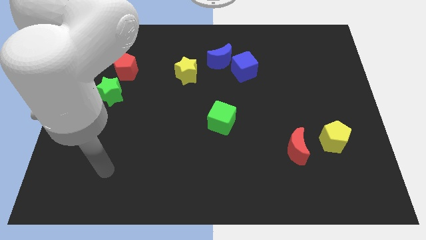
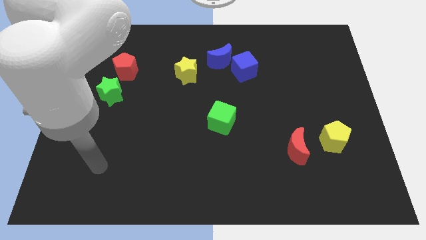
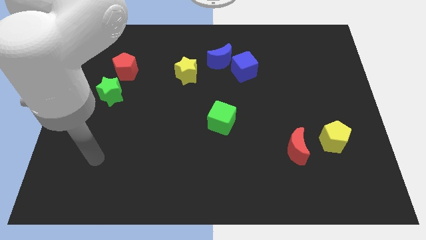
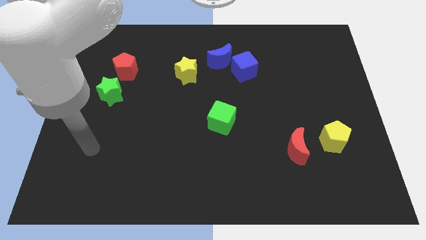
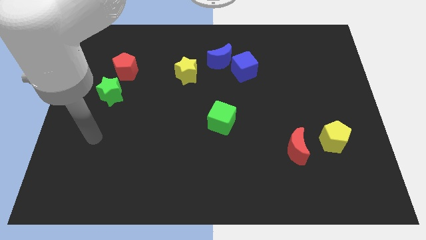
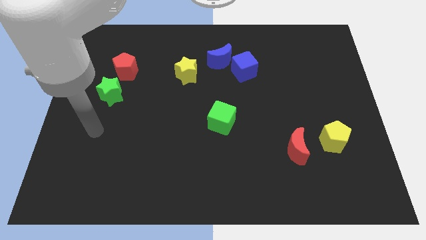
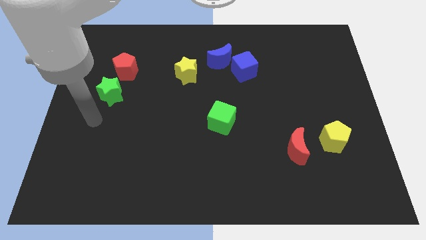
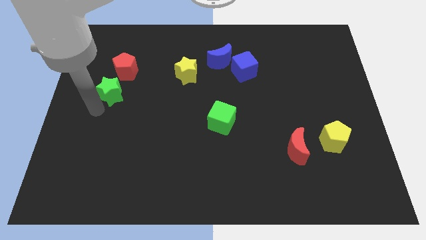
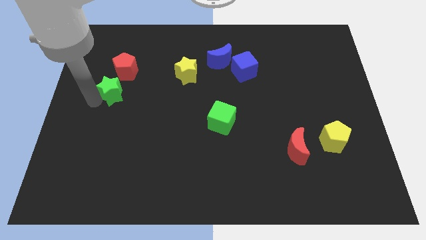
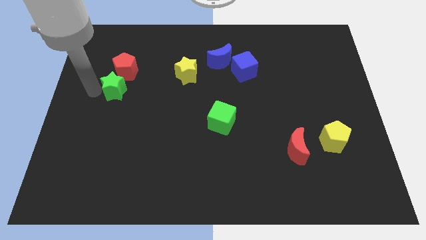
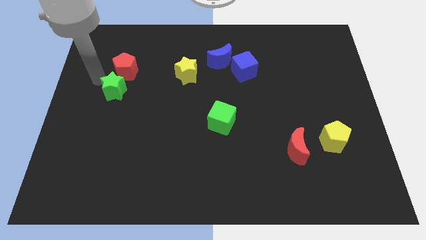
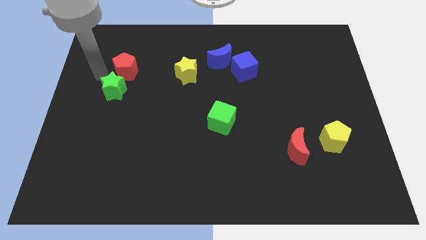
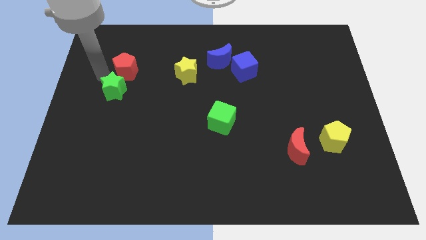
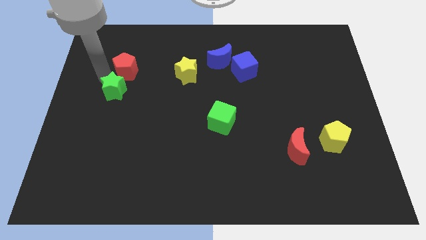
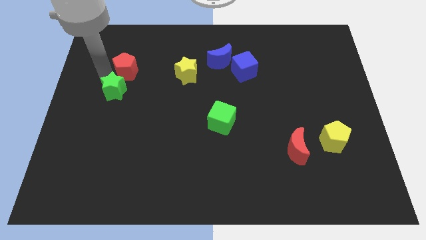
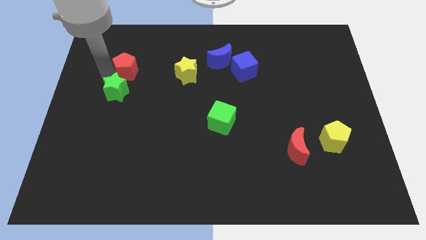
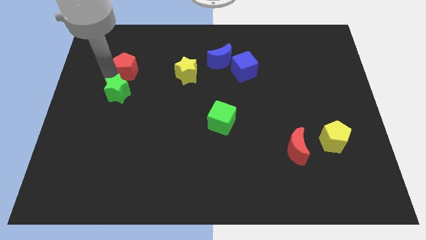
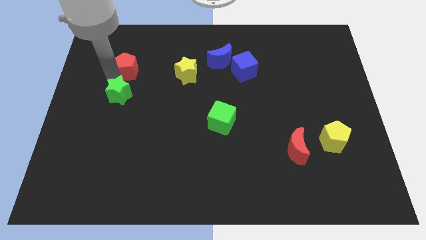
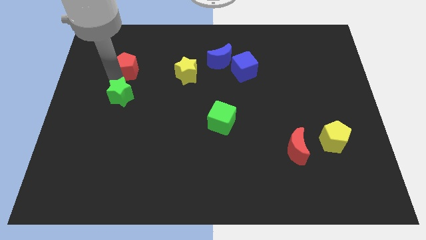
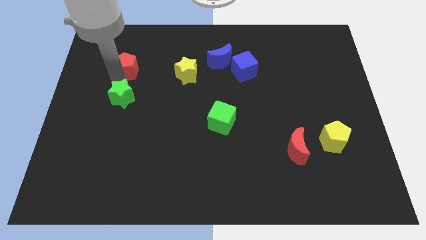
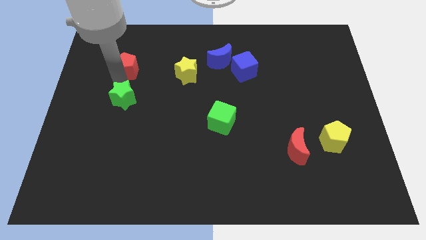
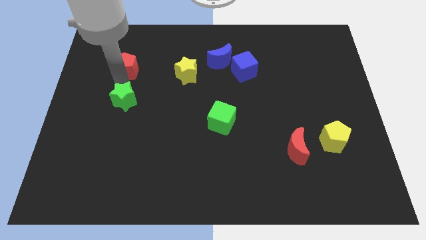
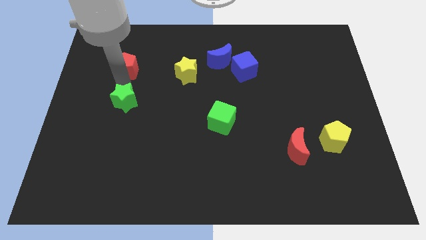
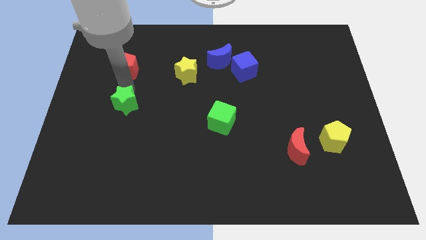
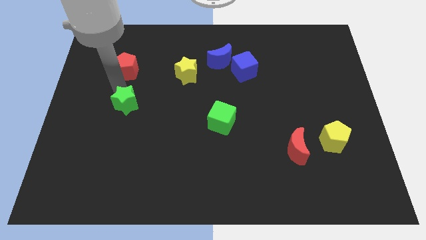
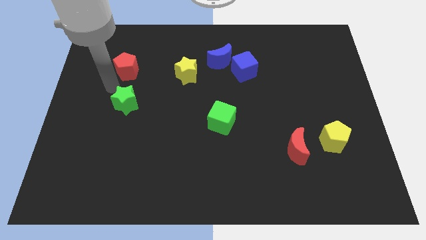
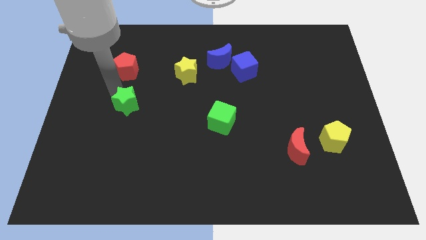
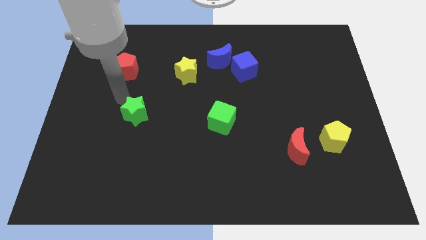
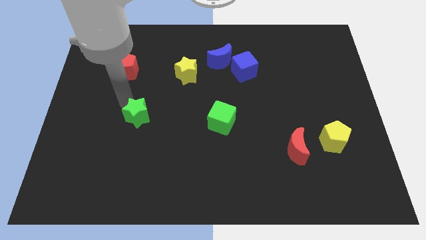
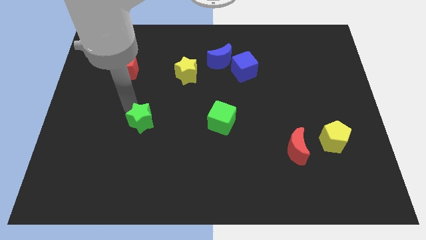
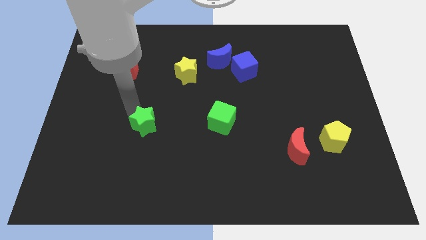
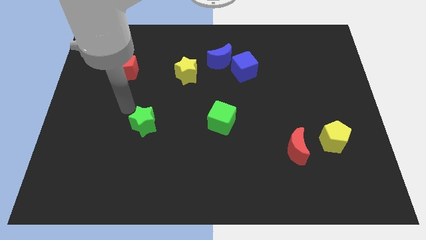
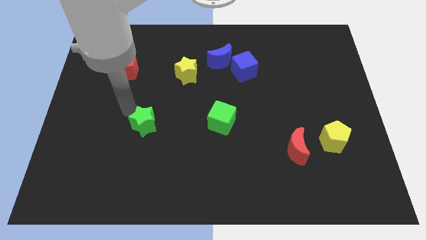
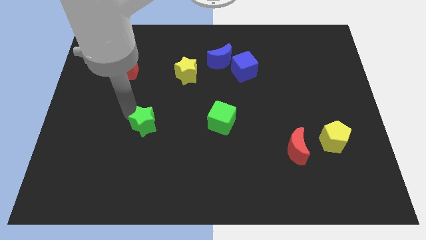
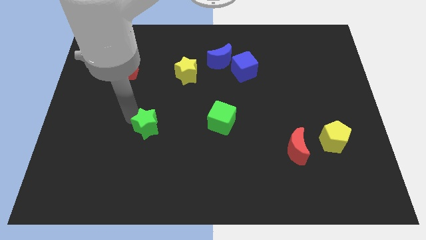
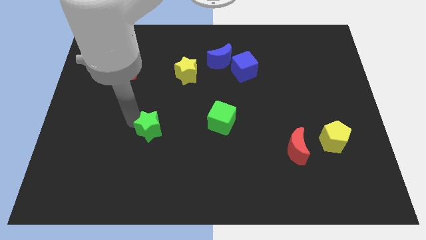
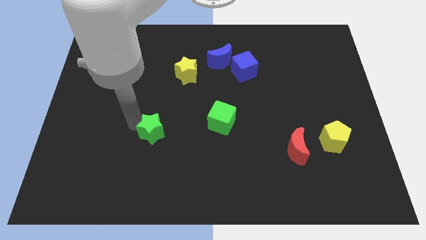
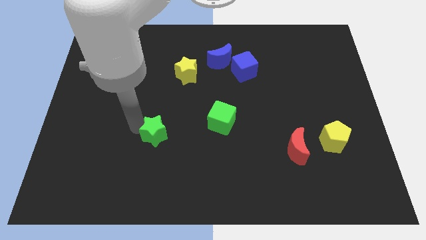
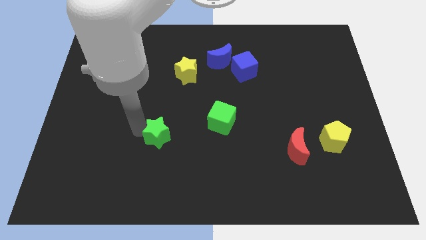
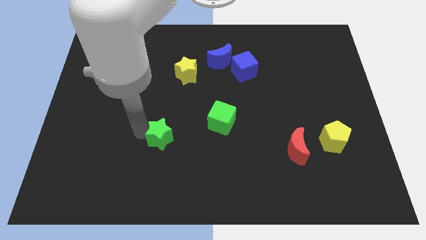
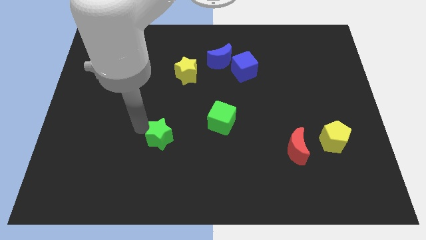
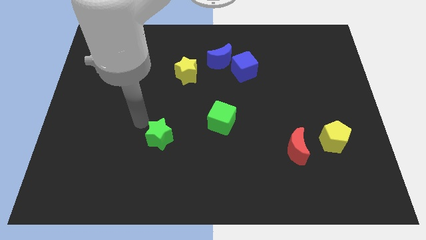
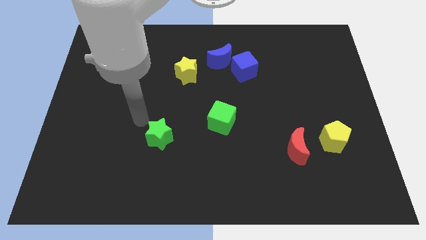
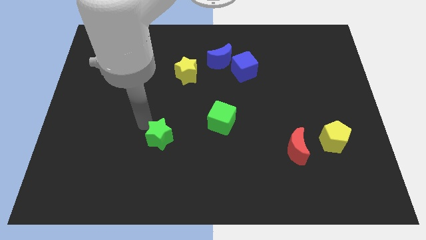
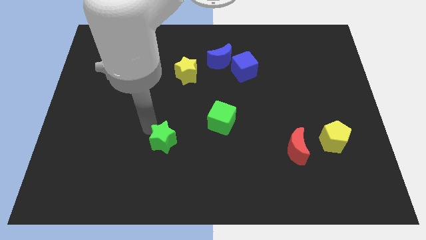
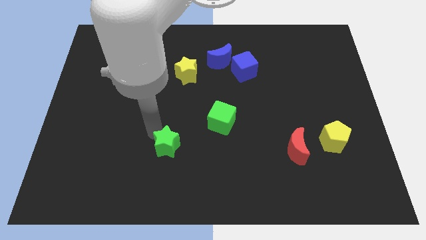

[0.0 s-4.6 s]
move the green star down and right diagonally

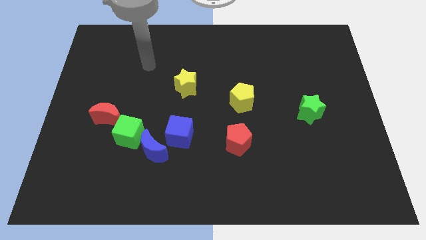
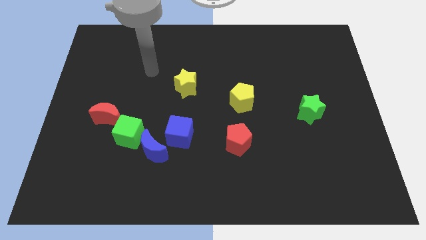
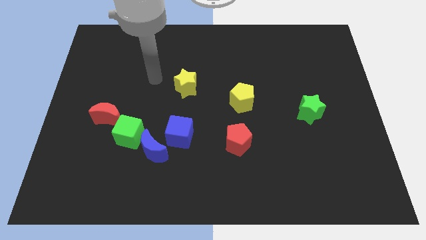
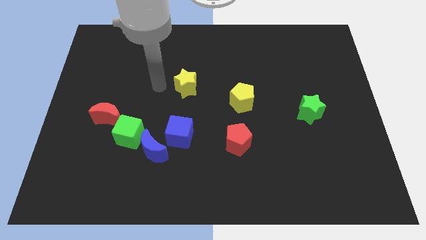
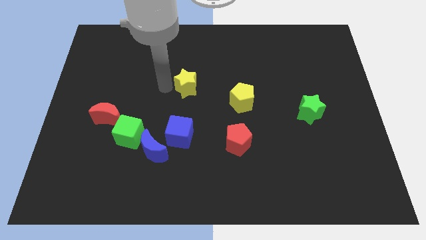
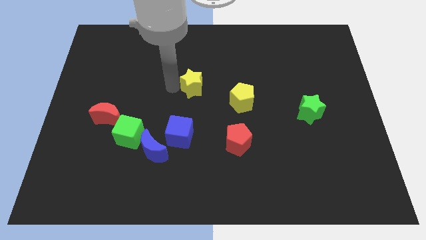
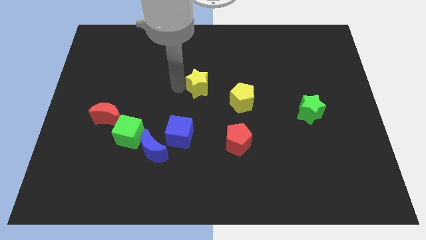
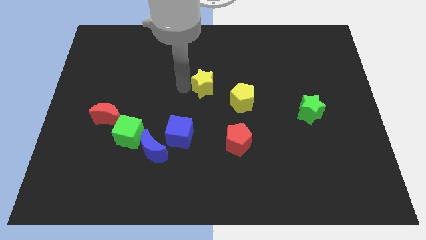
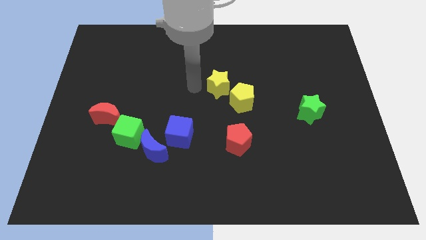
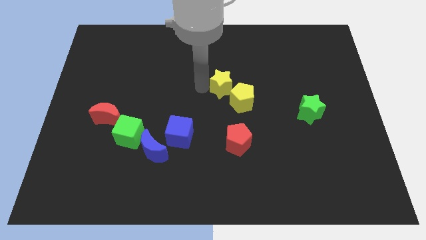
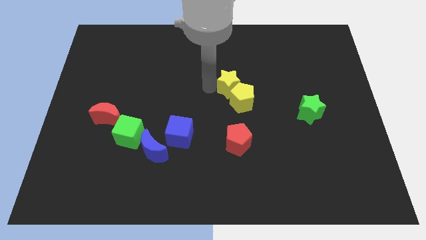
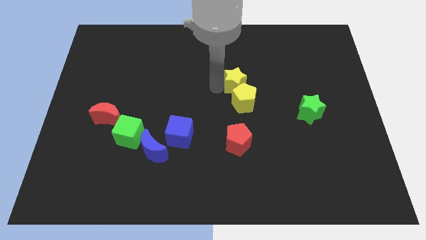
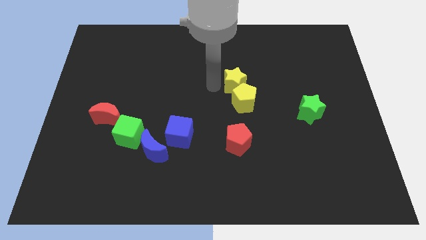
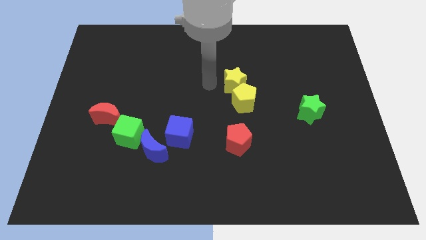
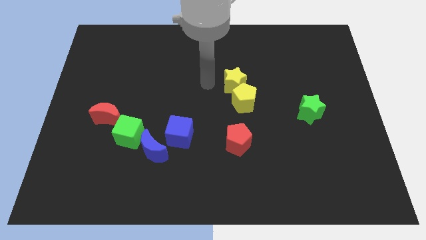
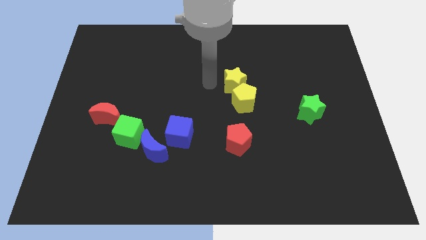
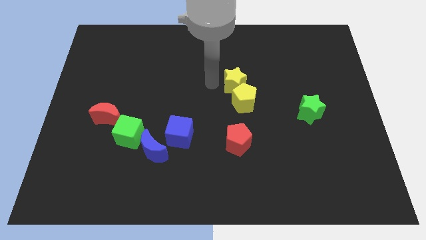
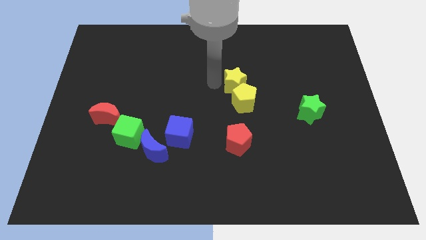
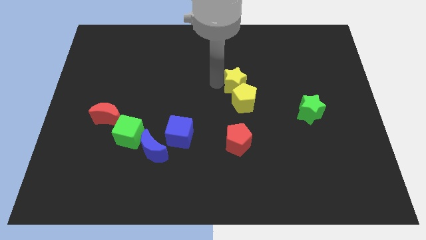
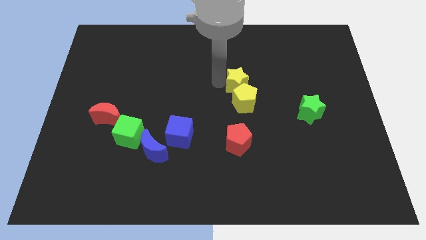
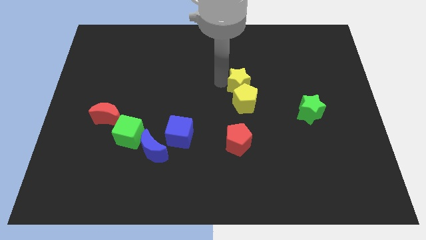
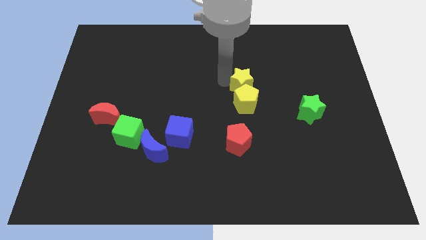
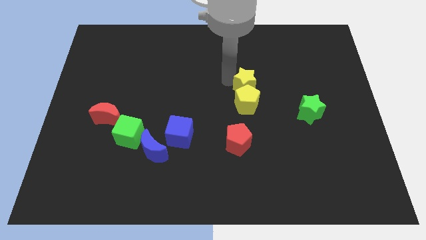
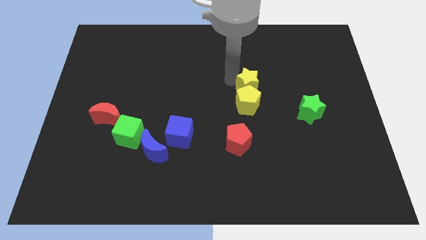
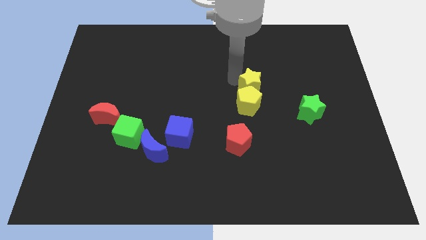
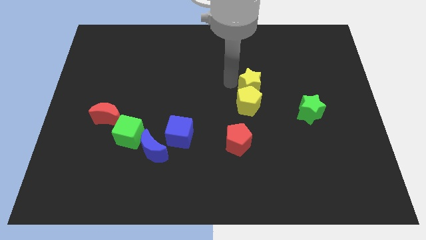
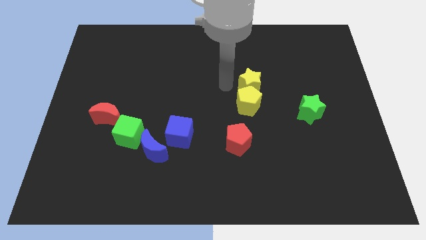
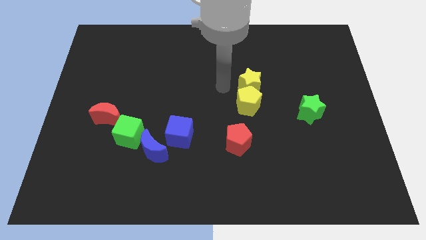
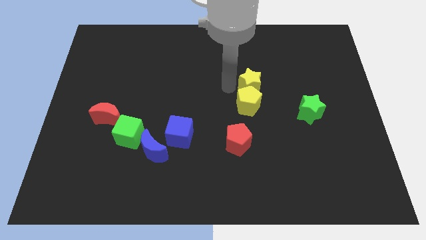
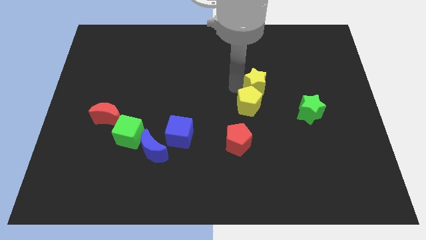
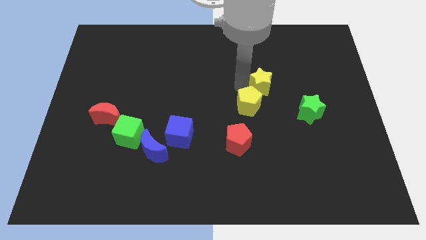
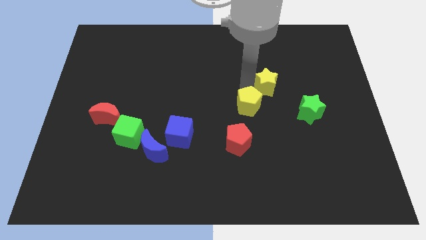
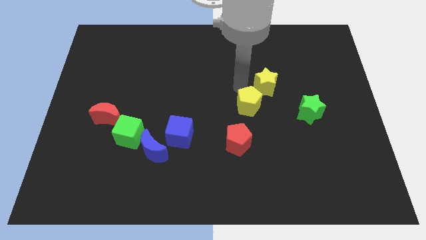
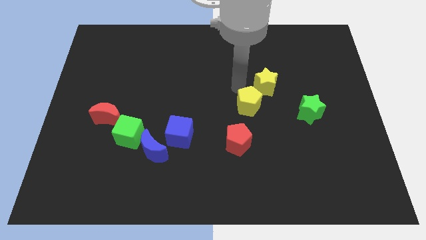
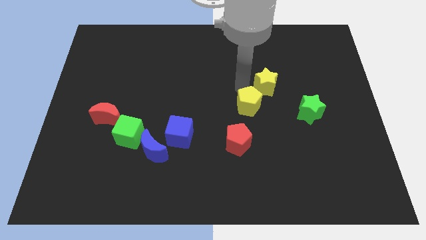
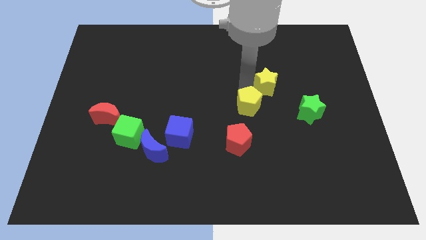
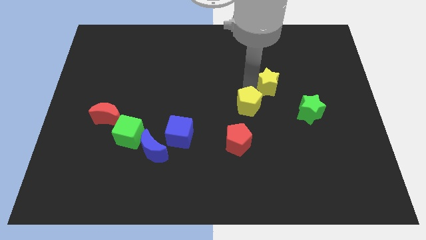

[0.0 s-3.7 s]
slide the yellow star right
